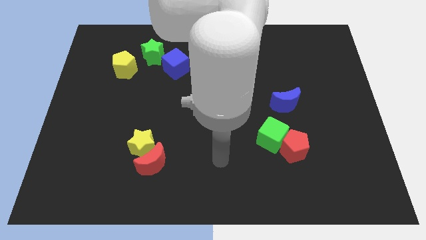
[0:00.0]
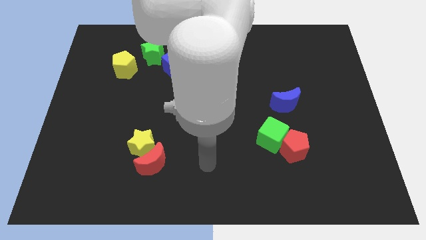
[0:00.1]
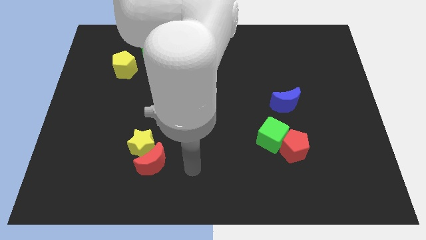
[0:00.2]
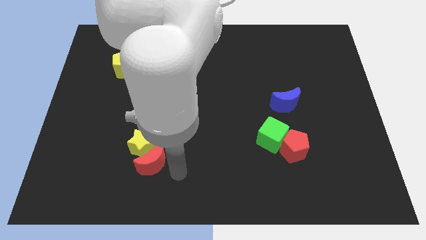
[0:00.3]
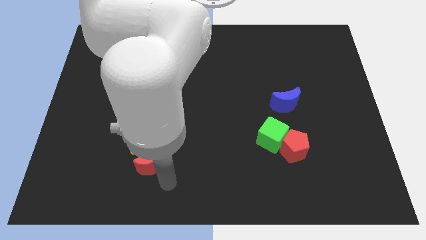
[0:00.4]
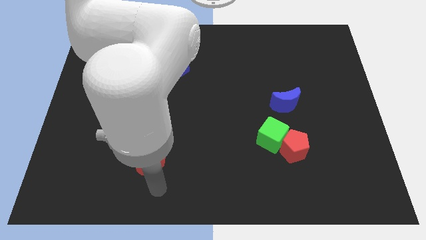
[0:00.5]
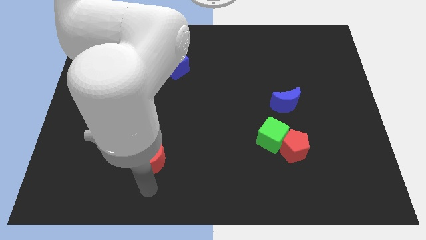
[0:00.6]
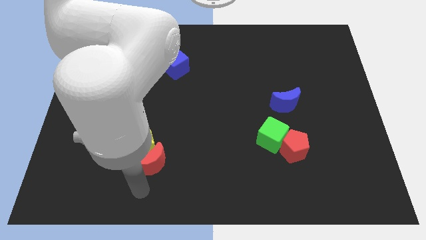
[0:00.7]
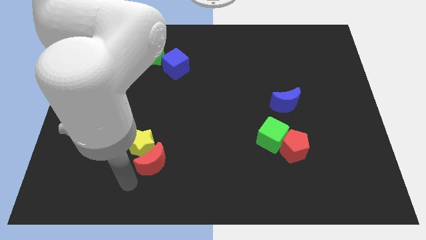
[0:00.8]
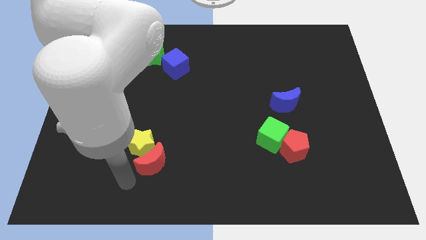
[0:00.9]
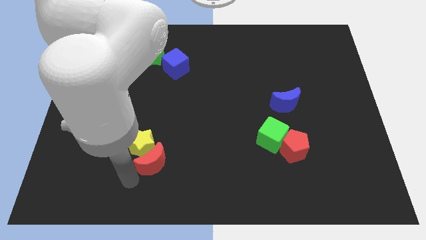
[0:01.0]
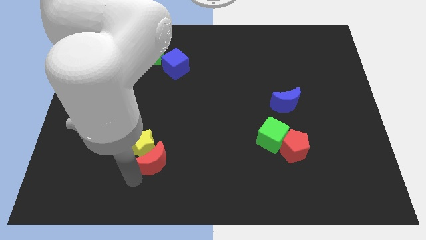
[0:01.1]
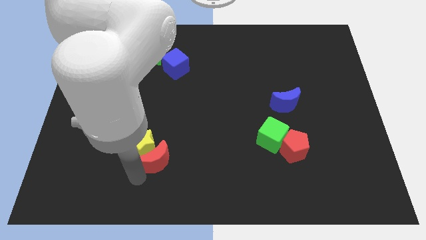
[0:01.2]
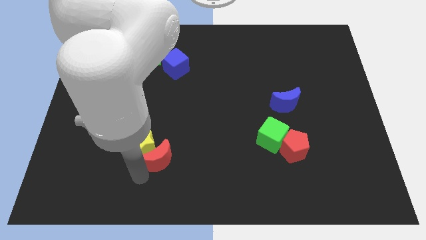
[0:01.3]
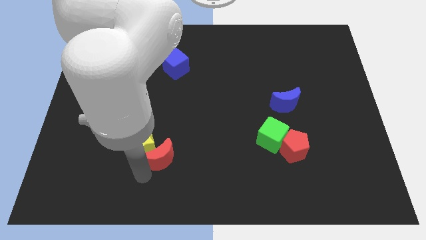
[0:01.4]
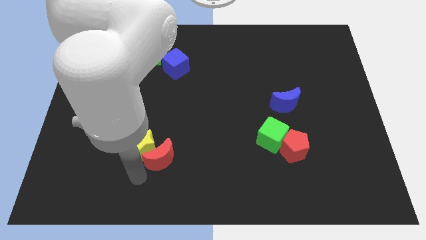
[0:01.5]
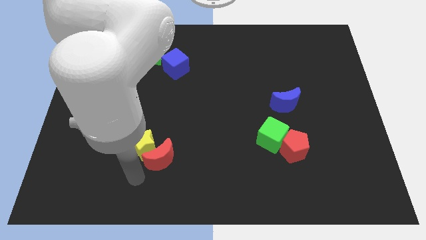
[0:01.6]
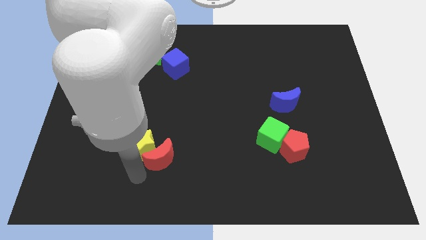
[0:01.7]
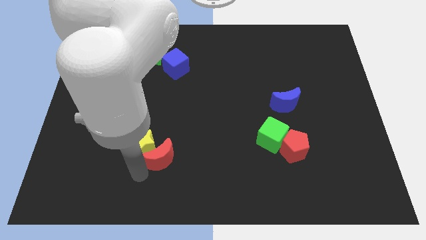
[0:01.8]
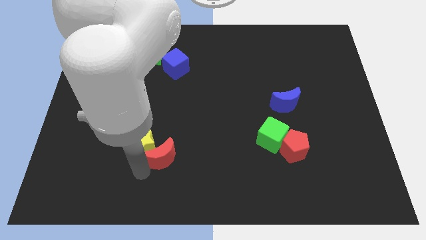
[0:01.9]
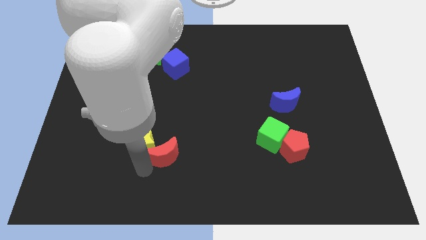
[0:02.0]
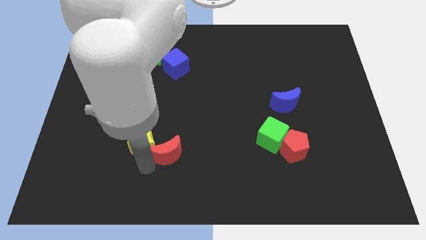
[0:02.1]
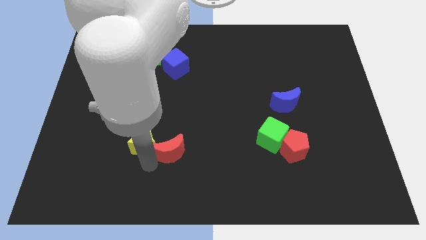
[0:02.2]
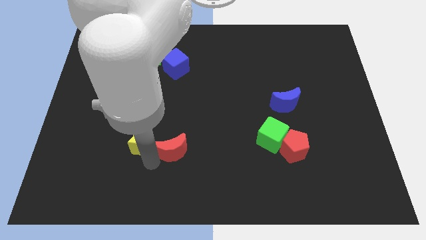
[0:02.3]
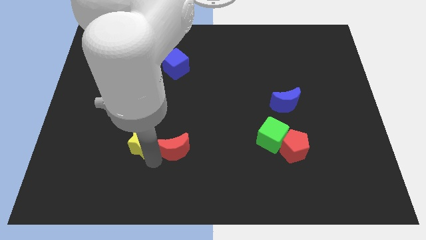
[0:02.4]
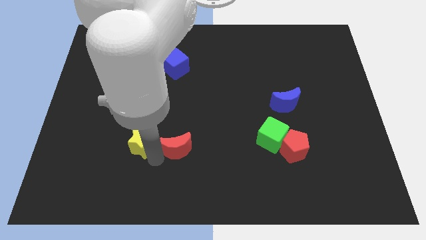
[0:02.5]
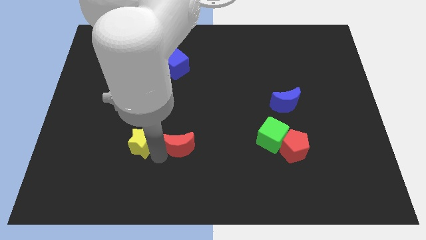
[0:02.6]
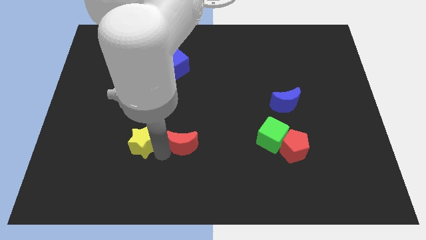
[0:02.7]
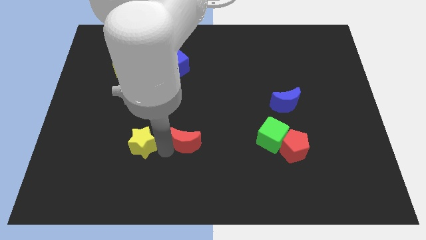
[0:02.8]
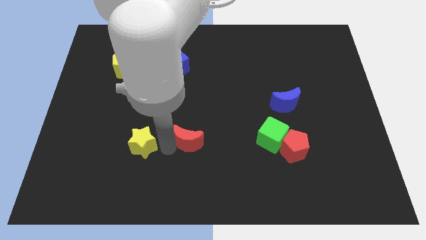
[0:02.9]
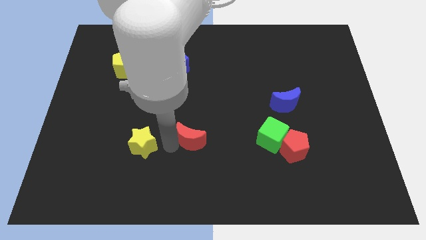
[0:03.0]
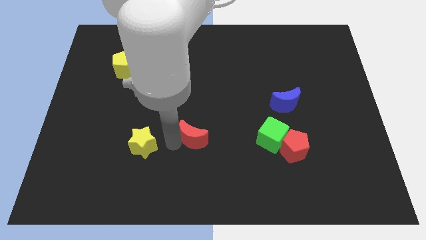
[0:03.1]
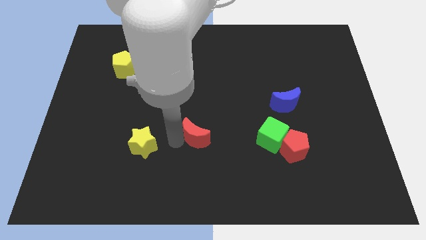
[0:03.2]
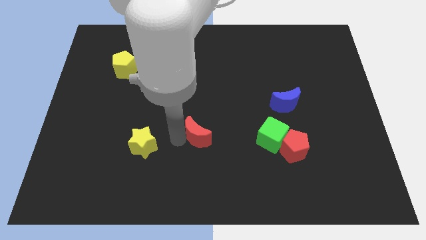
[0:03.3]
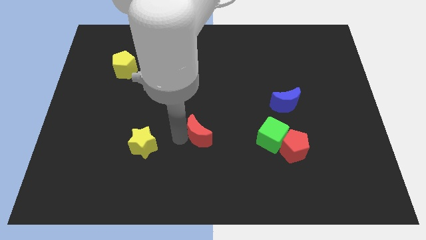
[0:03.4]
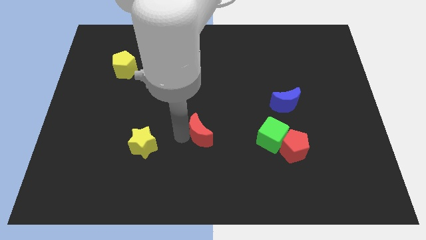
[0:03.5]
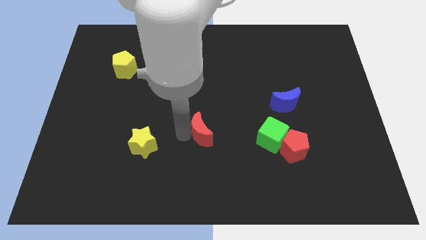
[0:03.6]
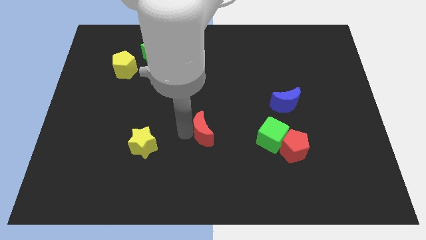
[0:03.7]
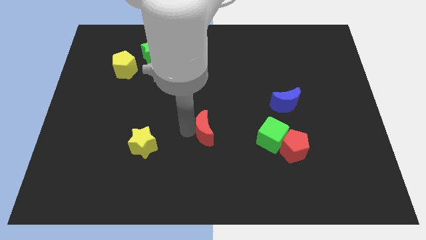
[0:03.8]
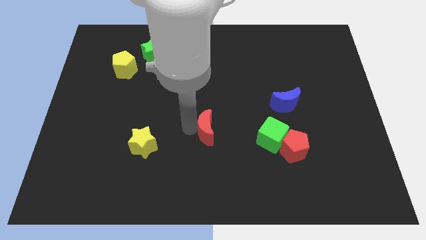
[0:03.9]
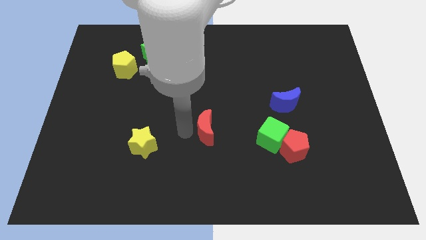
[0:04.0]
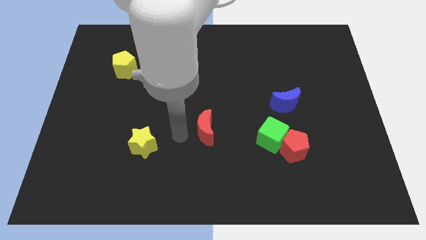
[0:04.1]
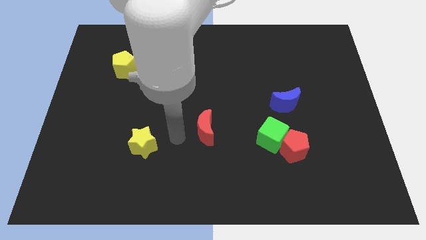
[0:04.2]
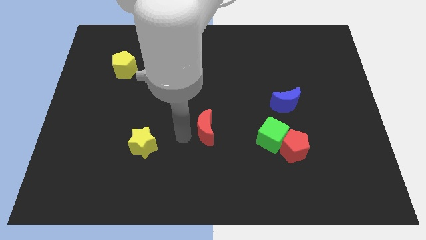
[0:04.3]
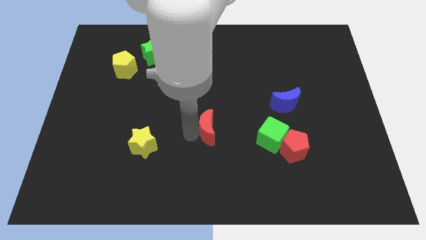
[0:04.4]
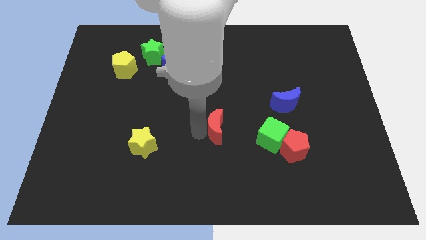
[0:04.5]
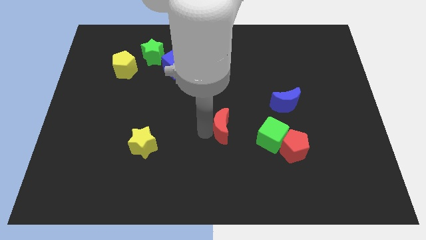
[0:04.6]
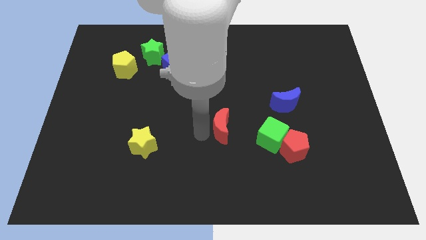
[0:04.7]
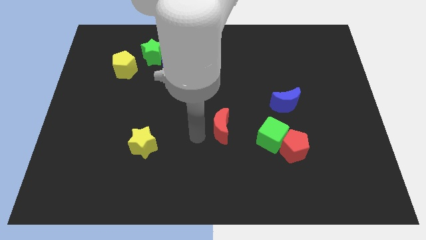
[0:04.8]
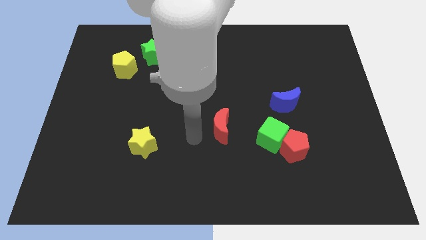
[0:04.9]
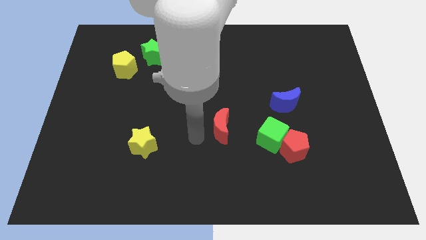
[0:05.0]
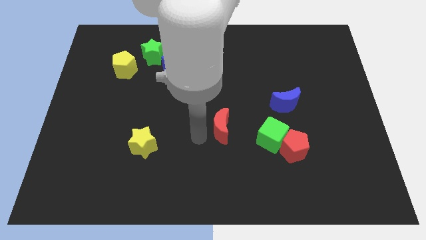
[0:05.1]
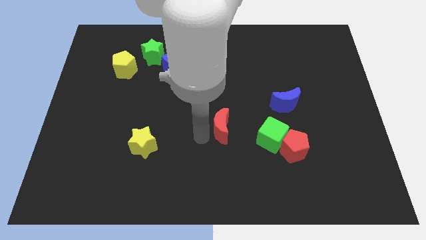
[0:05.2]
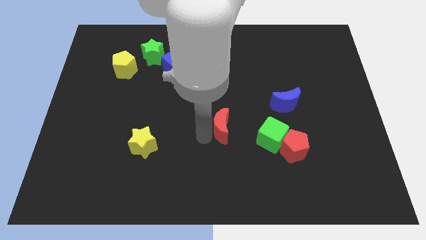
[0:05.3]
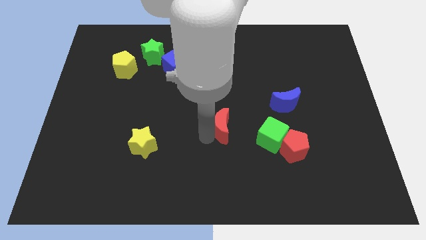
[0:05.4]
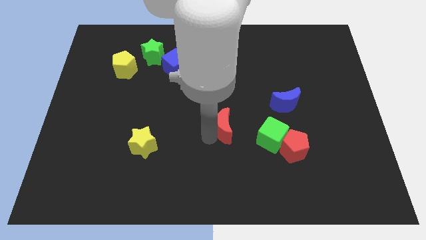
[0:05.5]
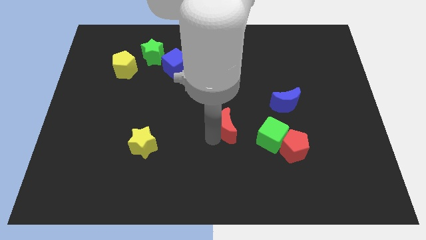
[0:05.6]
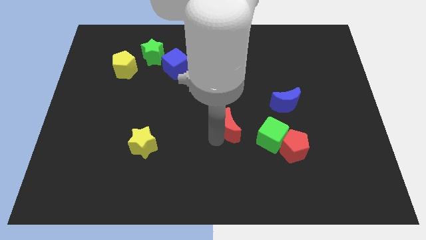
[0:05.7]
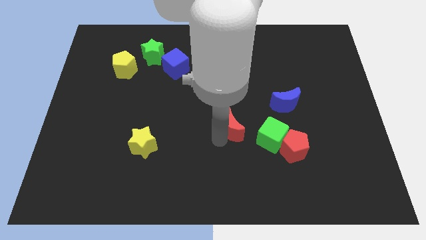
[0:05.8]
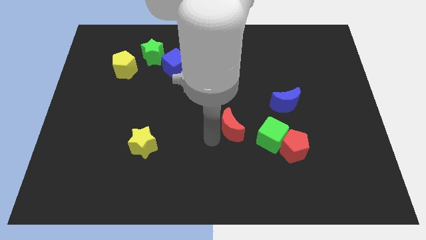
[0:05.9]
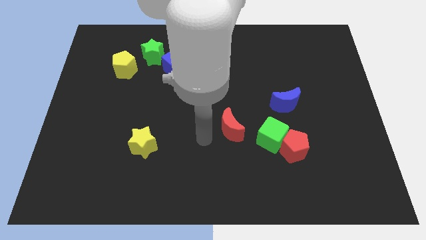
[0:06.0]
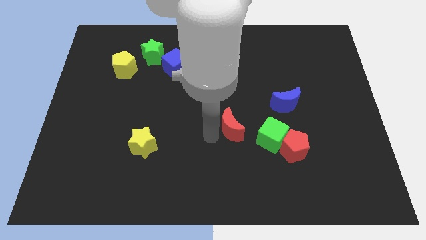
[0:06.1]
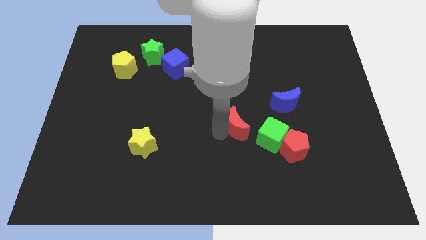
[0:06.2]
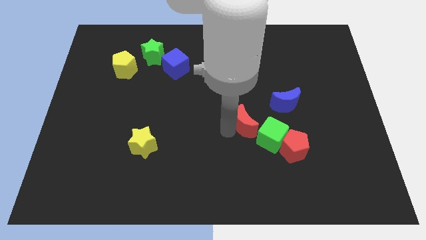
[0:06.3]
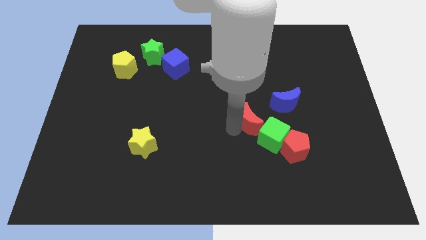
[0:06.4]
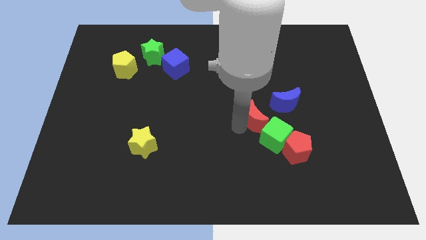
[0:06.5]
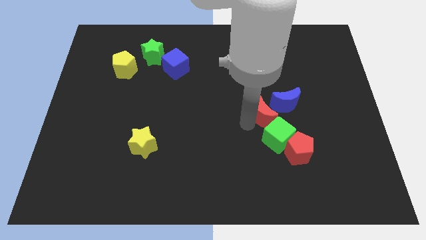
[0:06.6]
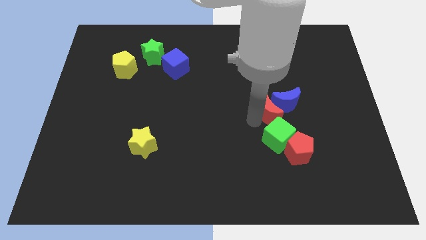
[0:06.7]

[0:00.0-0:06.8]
put the red moon to the blue moon

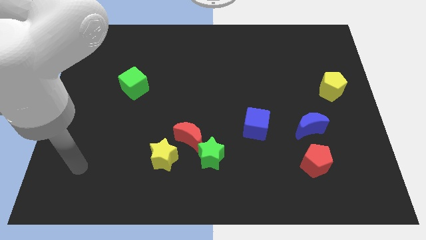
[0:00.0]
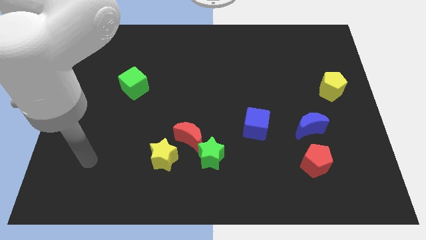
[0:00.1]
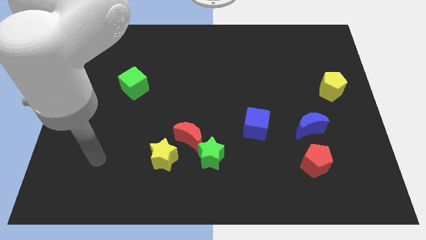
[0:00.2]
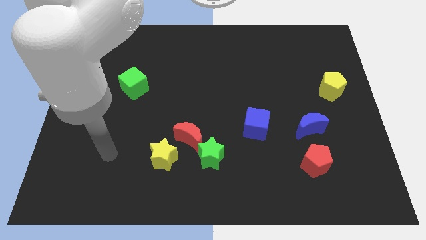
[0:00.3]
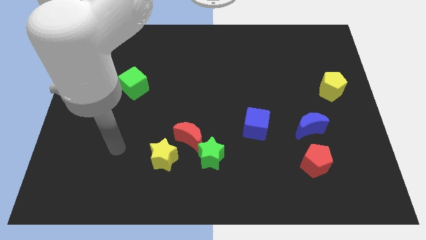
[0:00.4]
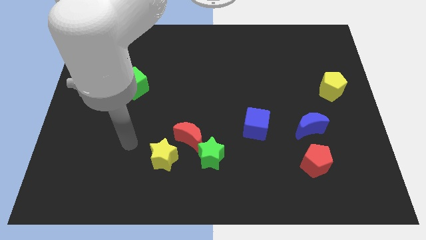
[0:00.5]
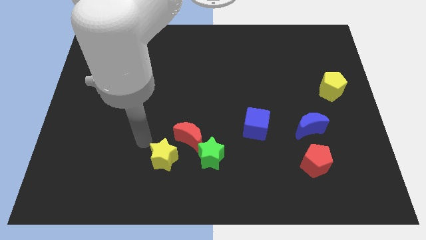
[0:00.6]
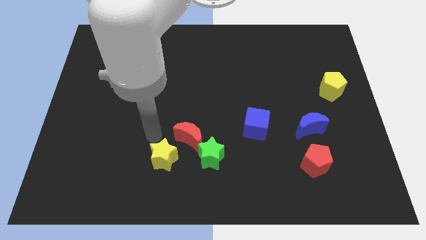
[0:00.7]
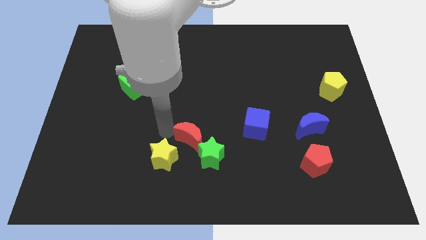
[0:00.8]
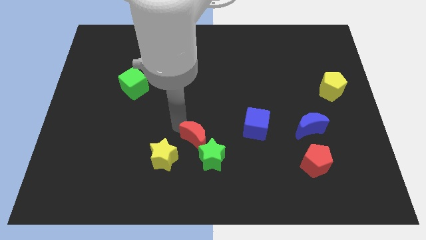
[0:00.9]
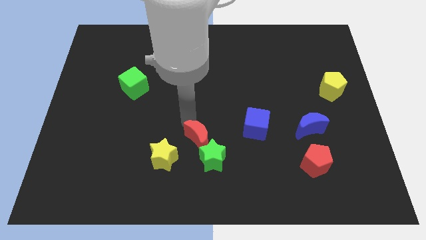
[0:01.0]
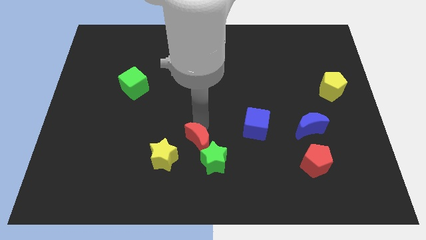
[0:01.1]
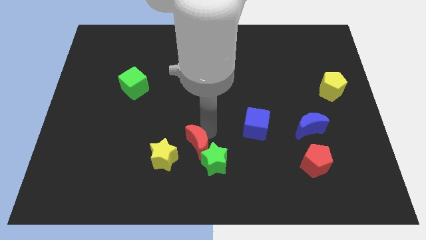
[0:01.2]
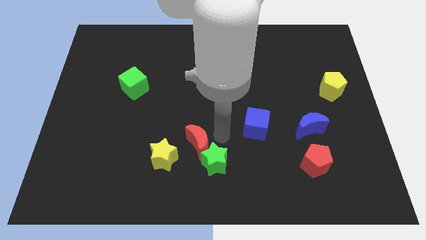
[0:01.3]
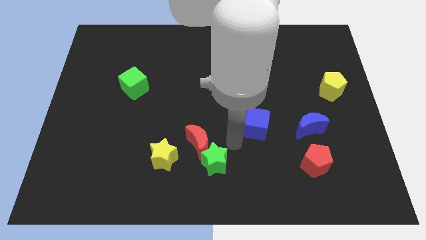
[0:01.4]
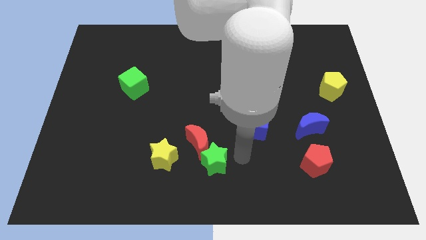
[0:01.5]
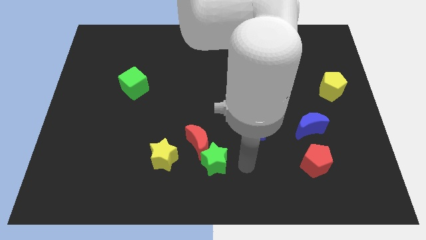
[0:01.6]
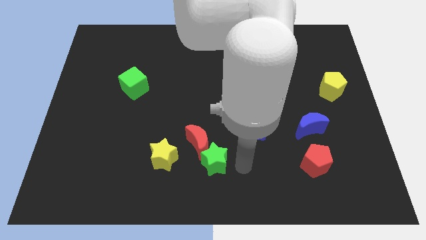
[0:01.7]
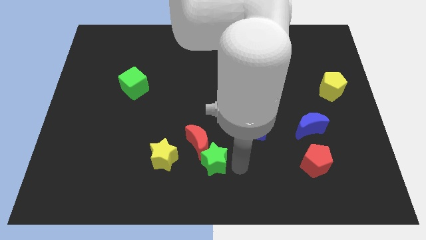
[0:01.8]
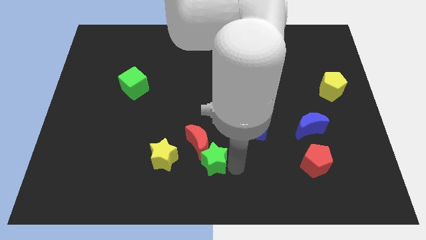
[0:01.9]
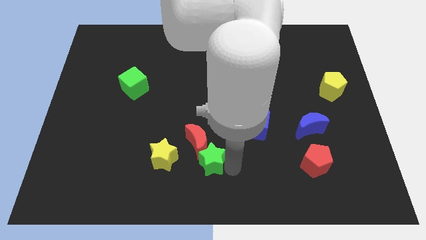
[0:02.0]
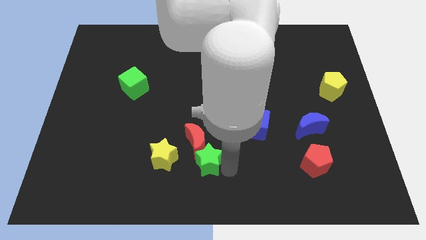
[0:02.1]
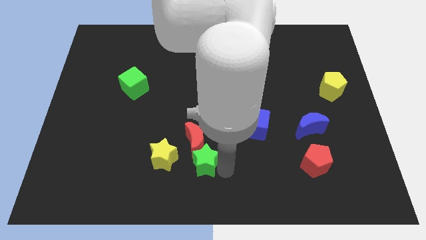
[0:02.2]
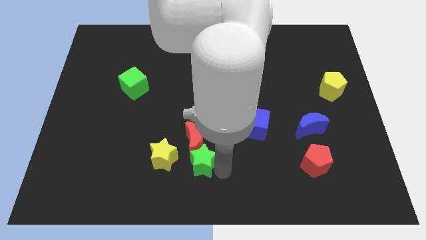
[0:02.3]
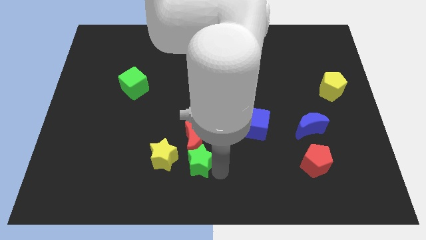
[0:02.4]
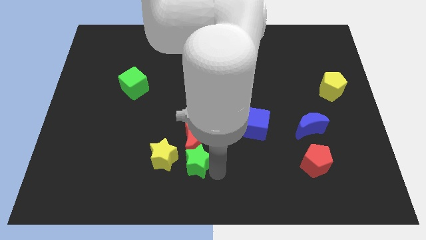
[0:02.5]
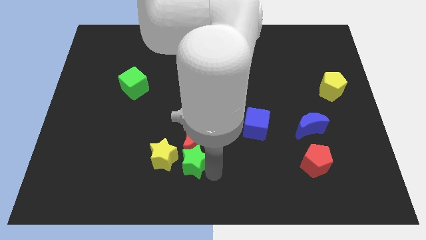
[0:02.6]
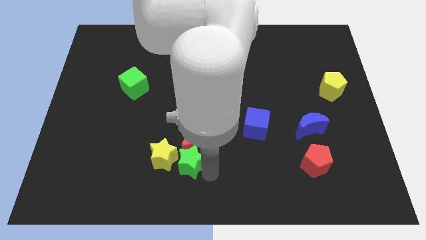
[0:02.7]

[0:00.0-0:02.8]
slide the green star next to the yellow star
